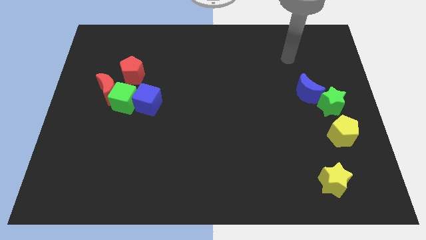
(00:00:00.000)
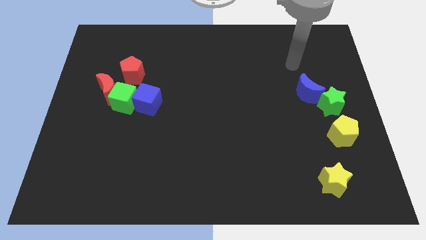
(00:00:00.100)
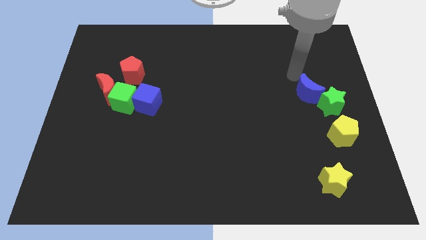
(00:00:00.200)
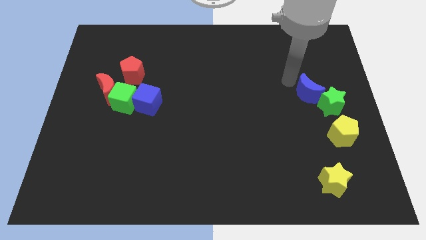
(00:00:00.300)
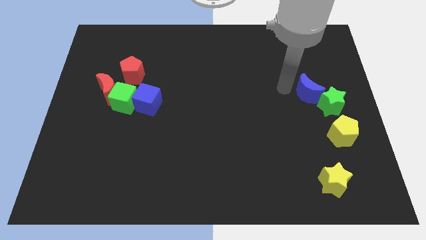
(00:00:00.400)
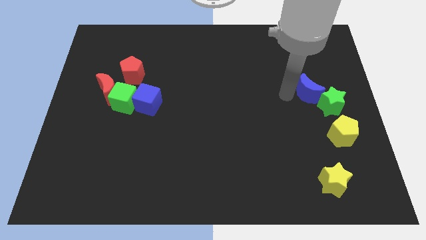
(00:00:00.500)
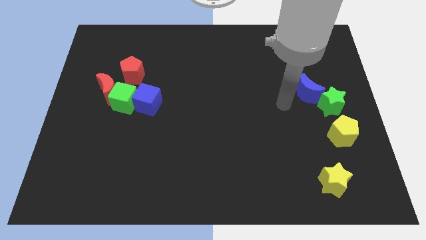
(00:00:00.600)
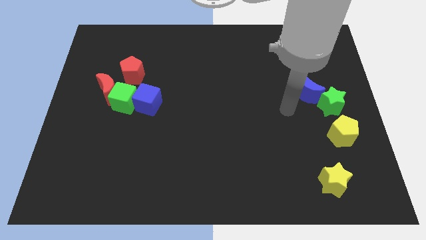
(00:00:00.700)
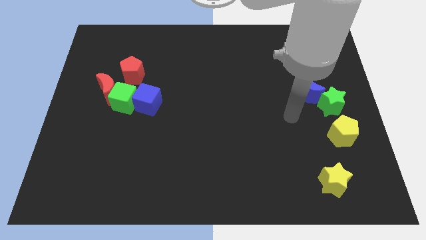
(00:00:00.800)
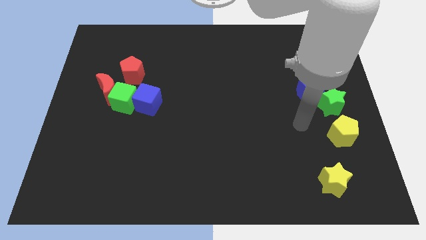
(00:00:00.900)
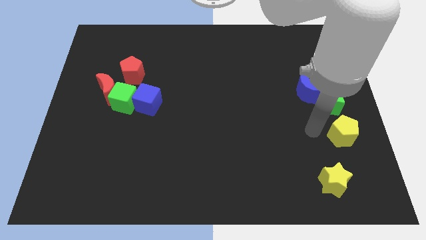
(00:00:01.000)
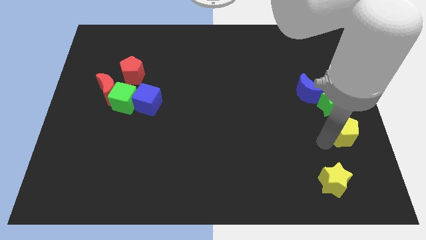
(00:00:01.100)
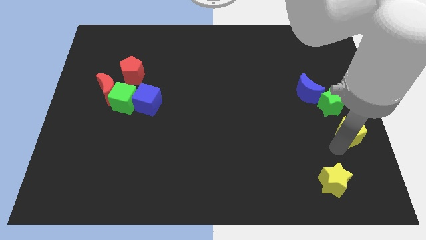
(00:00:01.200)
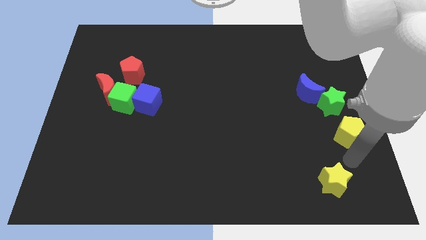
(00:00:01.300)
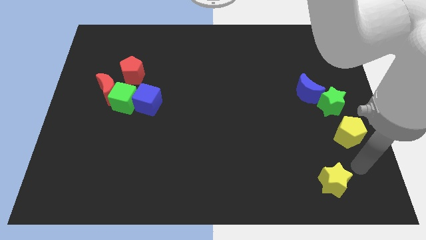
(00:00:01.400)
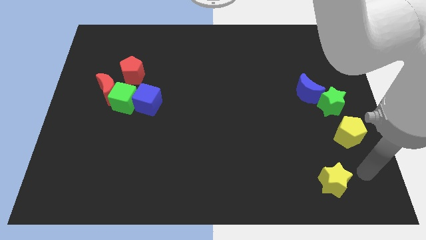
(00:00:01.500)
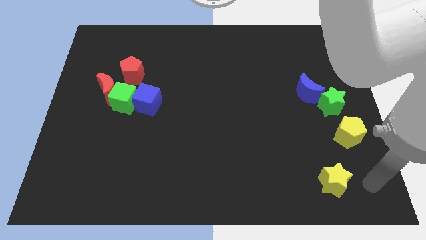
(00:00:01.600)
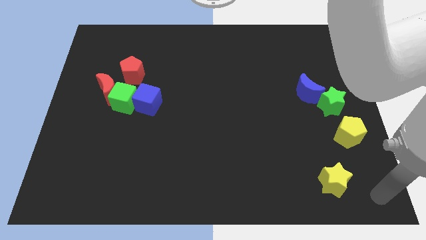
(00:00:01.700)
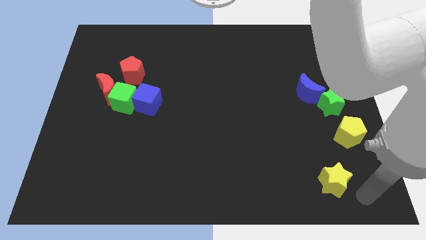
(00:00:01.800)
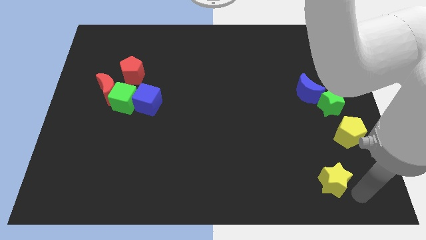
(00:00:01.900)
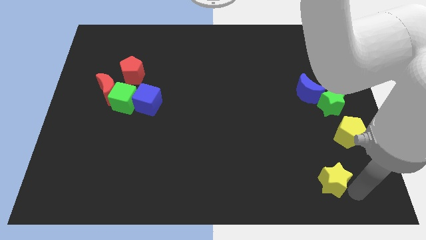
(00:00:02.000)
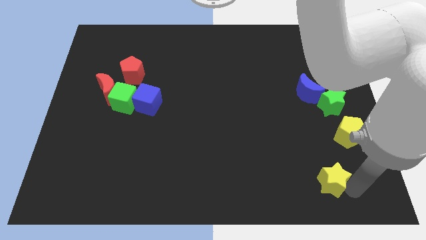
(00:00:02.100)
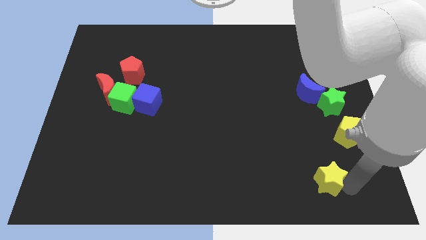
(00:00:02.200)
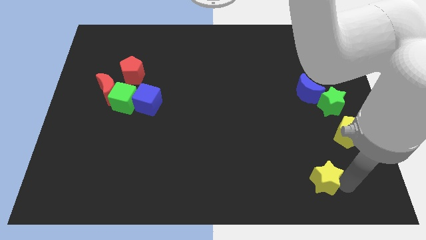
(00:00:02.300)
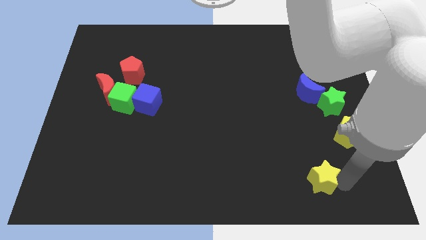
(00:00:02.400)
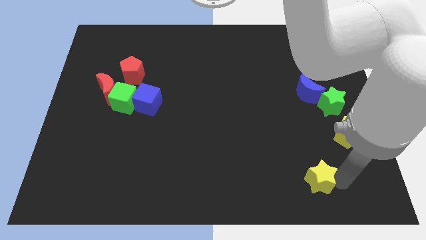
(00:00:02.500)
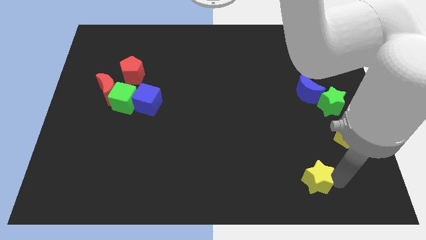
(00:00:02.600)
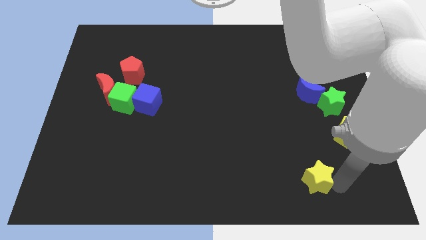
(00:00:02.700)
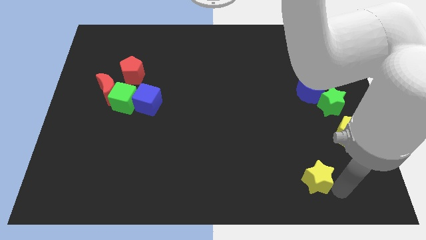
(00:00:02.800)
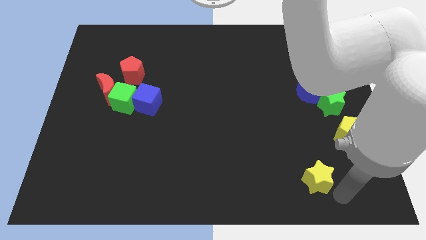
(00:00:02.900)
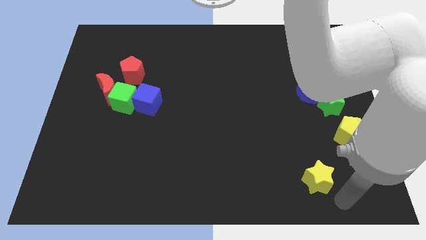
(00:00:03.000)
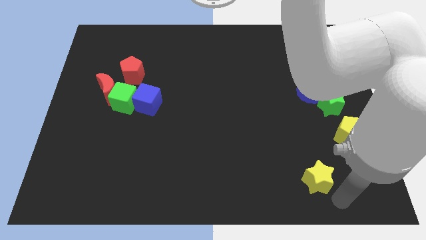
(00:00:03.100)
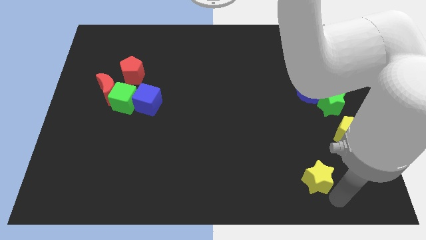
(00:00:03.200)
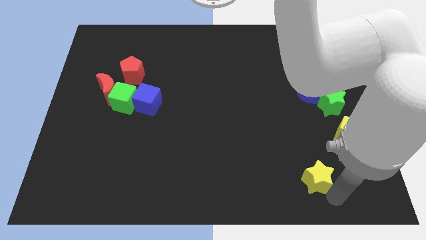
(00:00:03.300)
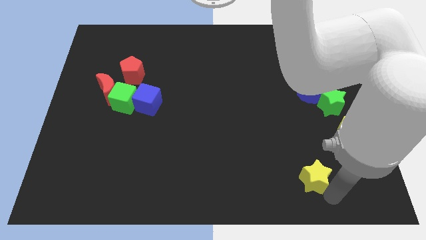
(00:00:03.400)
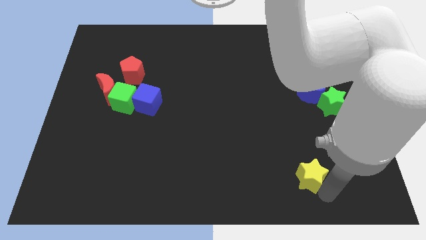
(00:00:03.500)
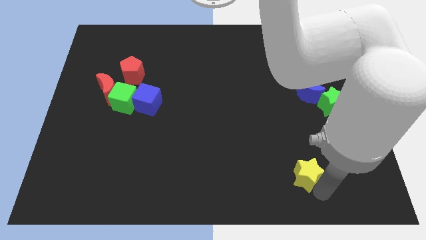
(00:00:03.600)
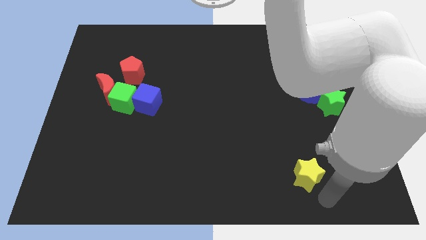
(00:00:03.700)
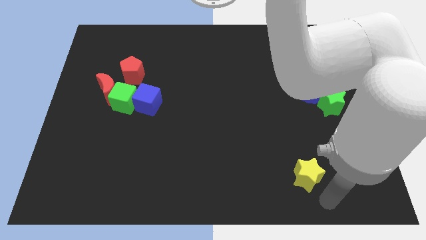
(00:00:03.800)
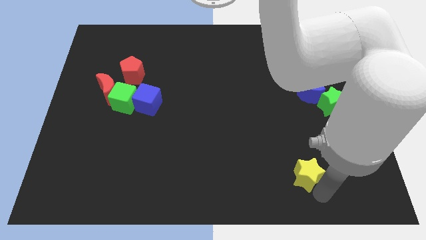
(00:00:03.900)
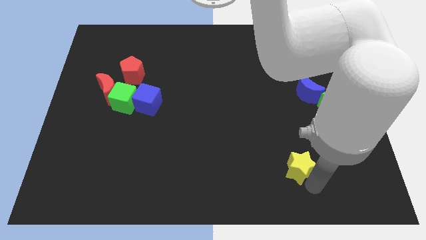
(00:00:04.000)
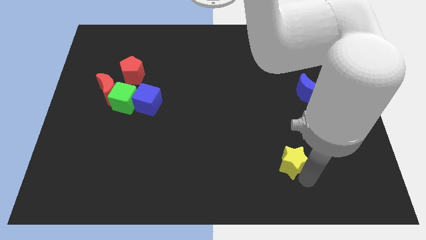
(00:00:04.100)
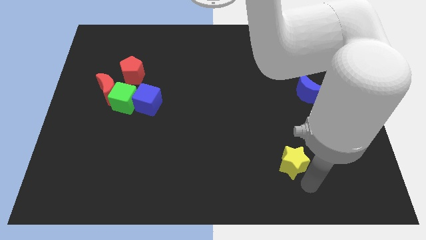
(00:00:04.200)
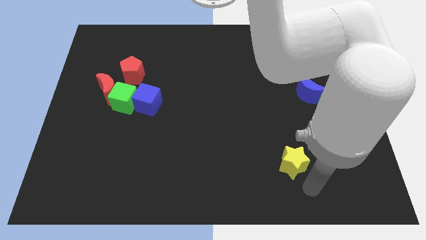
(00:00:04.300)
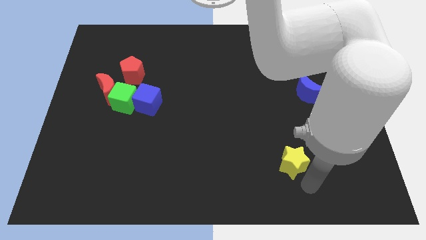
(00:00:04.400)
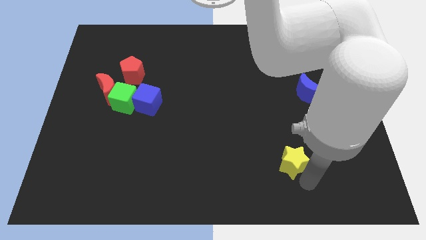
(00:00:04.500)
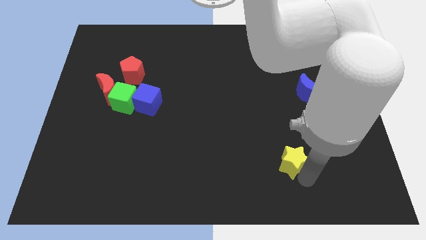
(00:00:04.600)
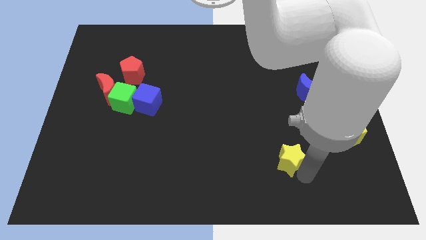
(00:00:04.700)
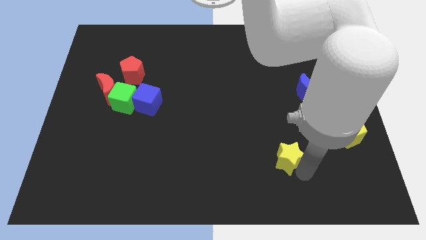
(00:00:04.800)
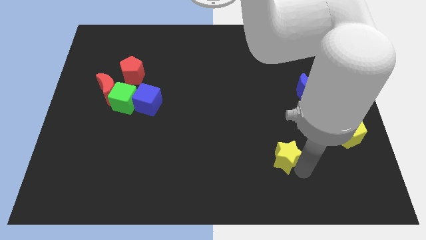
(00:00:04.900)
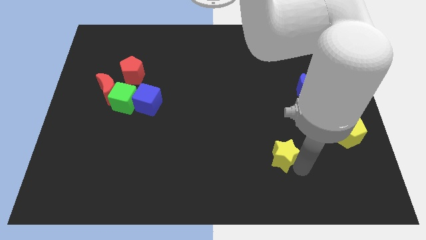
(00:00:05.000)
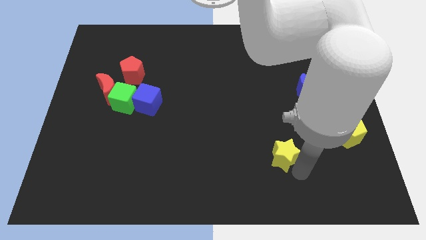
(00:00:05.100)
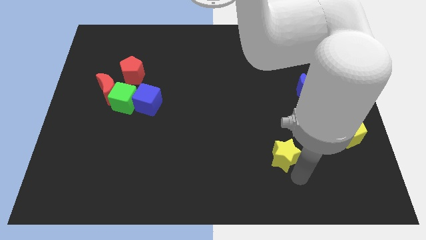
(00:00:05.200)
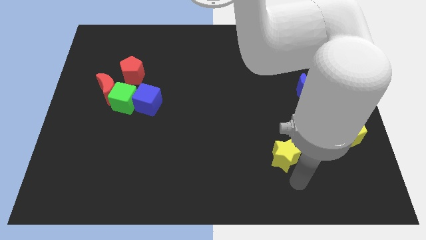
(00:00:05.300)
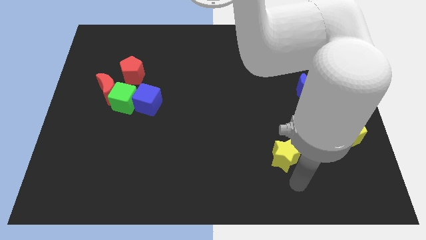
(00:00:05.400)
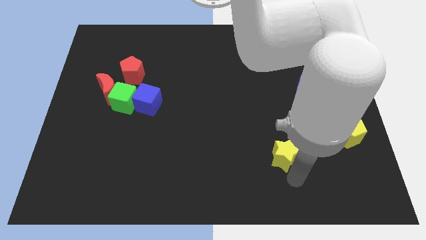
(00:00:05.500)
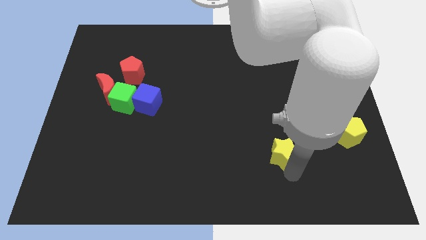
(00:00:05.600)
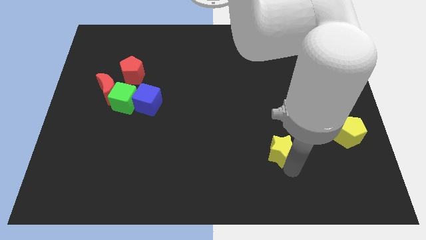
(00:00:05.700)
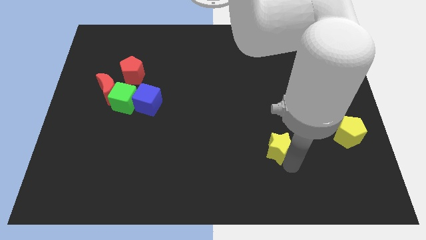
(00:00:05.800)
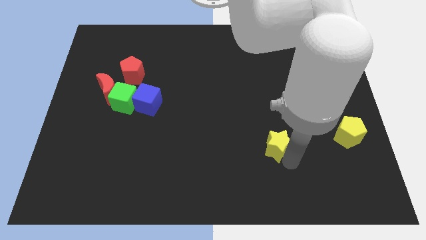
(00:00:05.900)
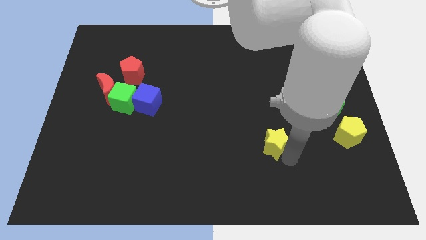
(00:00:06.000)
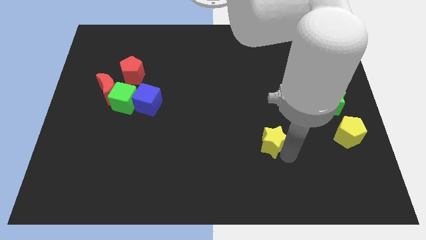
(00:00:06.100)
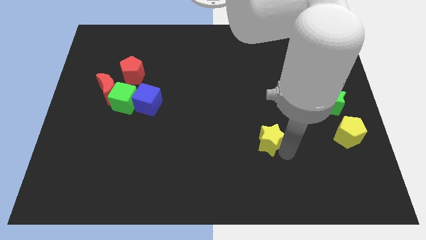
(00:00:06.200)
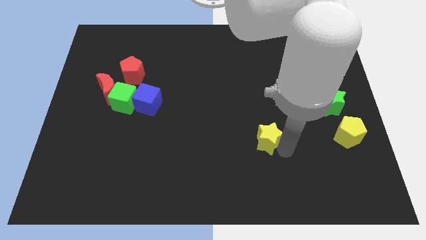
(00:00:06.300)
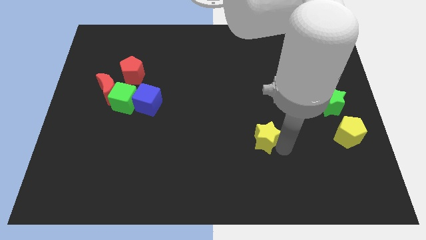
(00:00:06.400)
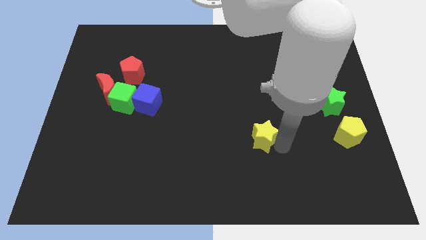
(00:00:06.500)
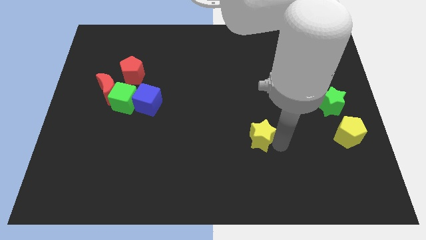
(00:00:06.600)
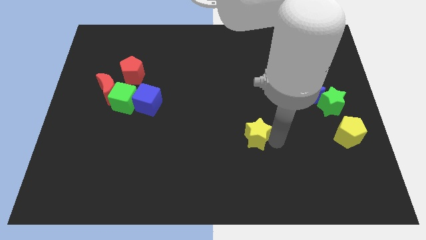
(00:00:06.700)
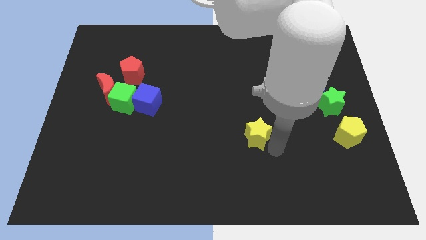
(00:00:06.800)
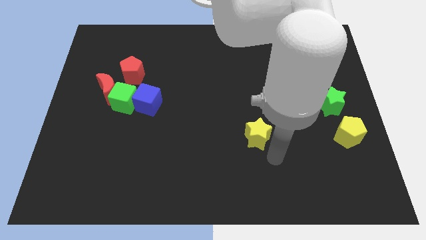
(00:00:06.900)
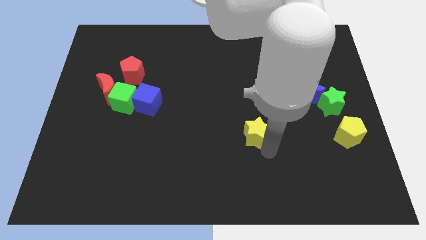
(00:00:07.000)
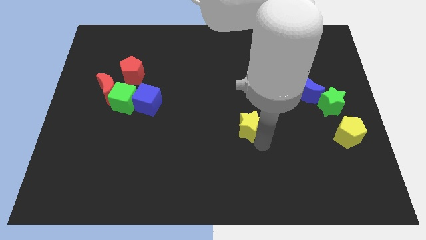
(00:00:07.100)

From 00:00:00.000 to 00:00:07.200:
slide the yellow star upwards and then left

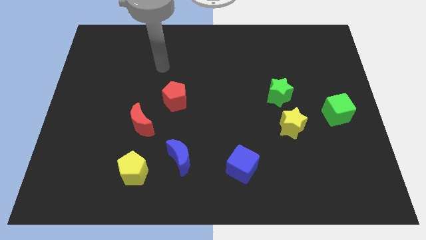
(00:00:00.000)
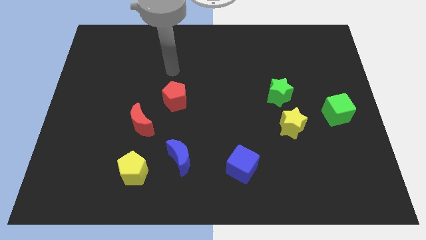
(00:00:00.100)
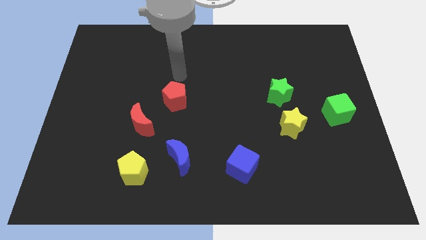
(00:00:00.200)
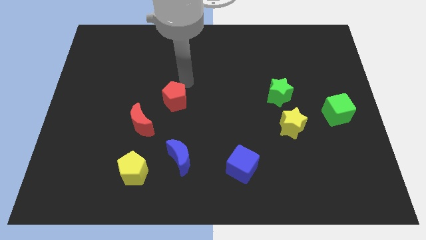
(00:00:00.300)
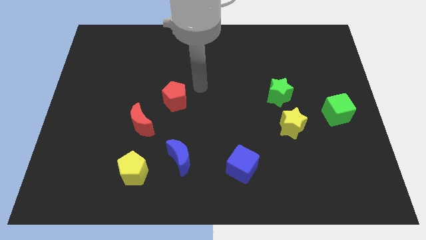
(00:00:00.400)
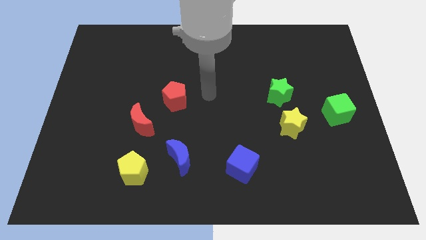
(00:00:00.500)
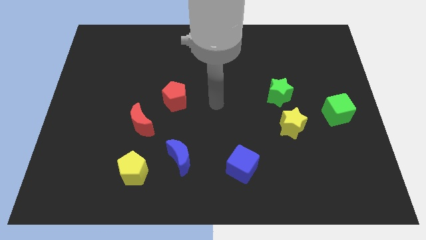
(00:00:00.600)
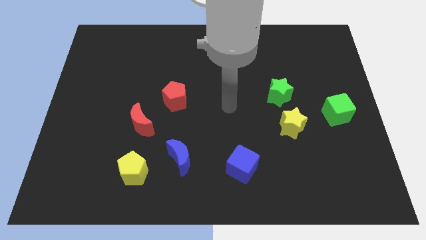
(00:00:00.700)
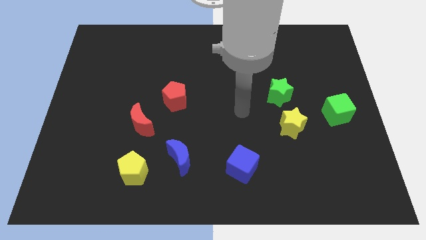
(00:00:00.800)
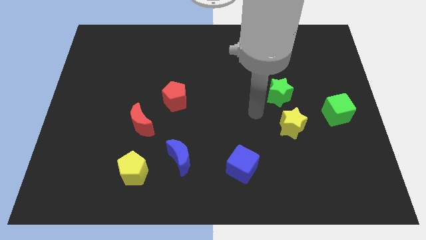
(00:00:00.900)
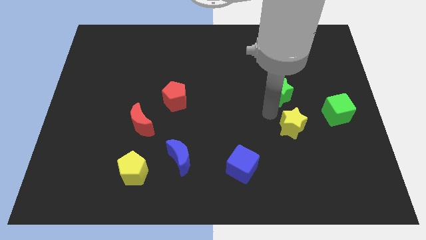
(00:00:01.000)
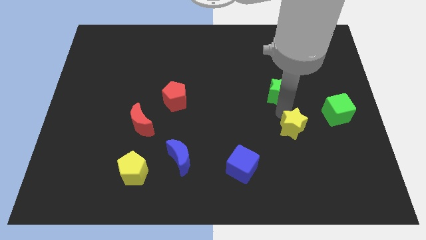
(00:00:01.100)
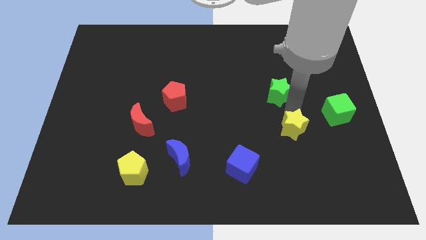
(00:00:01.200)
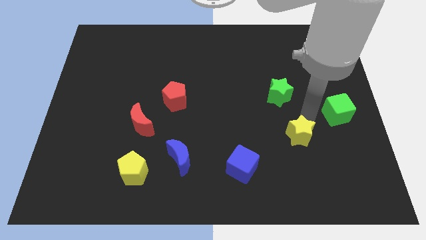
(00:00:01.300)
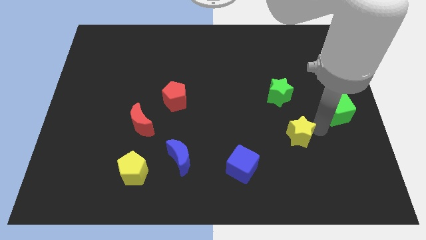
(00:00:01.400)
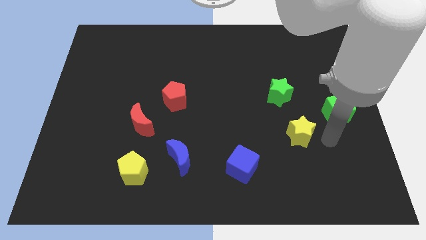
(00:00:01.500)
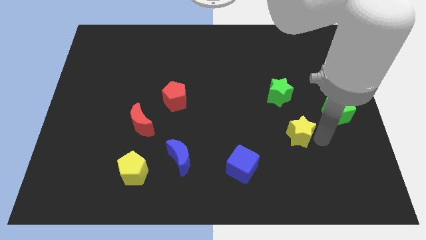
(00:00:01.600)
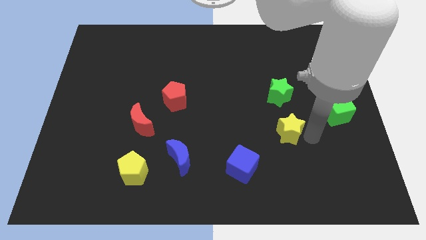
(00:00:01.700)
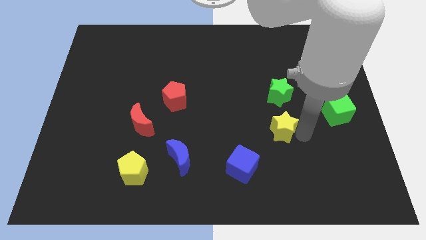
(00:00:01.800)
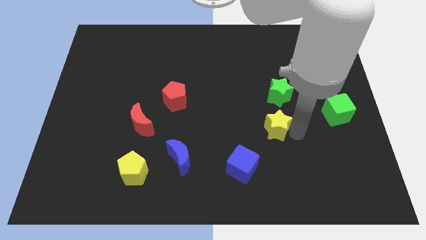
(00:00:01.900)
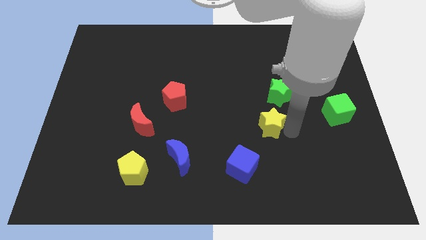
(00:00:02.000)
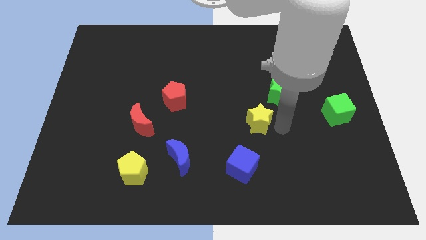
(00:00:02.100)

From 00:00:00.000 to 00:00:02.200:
slightly slide the yellow star to the left
